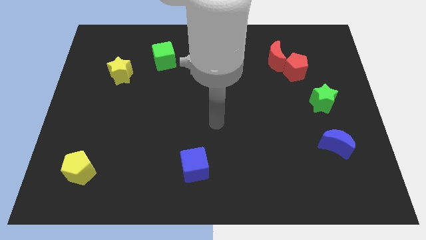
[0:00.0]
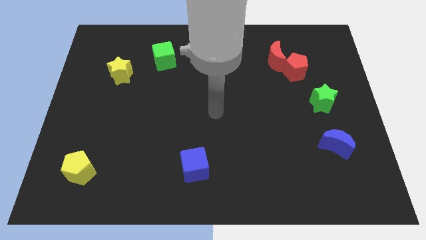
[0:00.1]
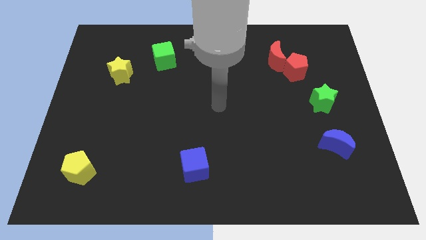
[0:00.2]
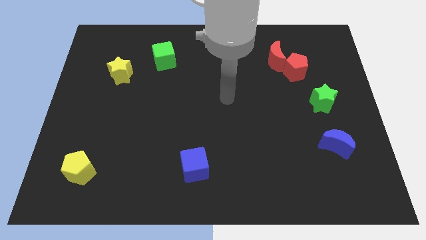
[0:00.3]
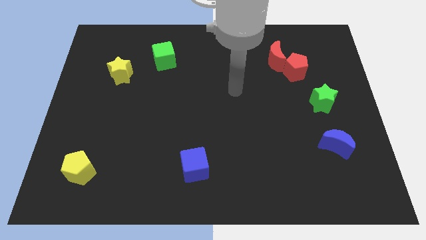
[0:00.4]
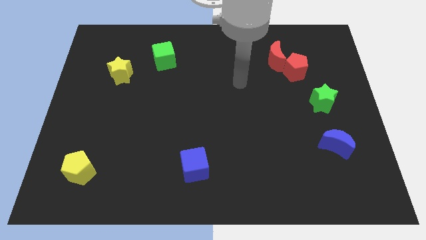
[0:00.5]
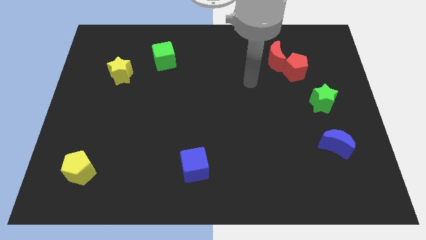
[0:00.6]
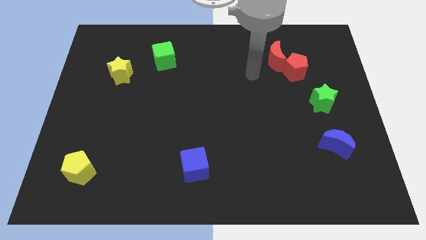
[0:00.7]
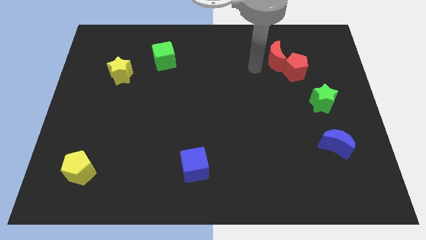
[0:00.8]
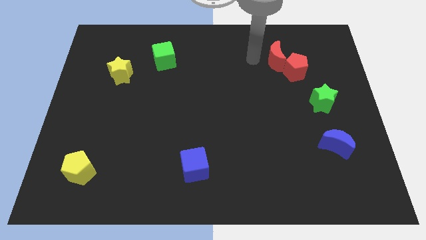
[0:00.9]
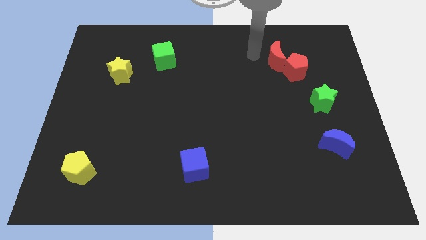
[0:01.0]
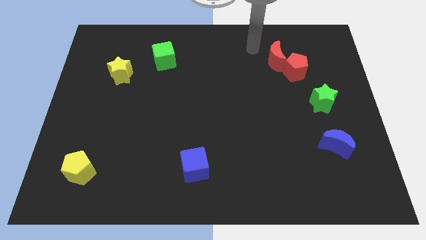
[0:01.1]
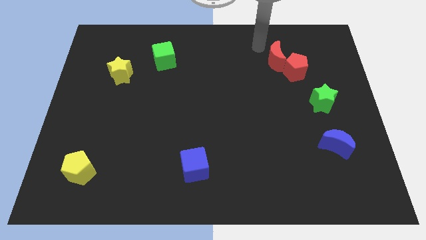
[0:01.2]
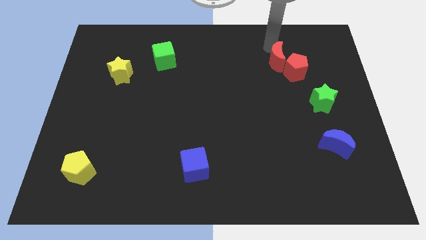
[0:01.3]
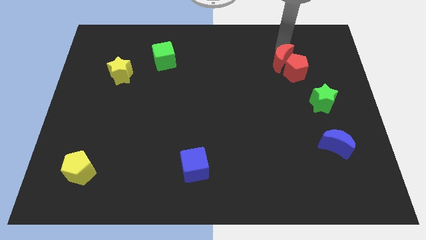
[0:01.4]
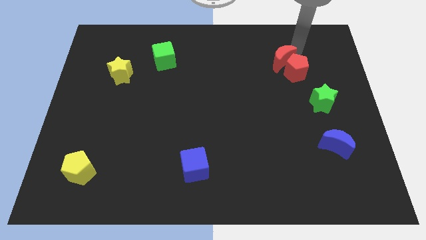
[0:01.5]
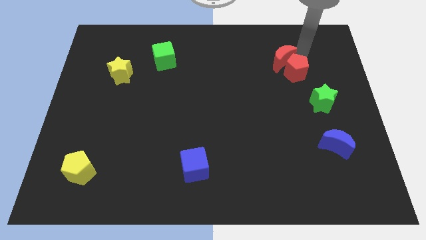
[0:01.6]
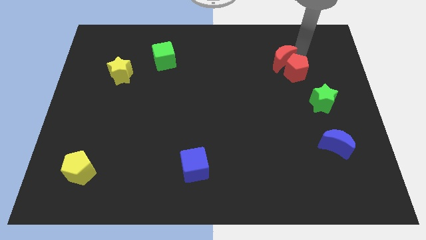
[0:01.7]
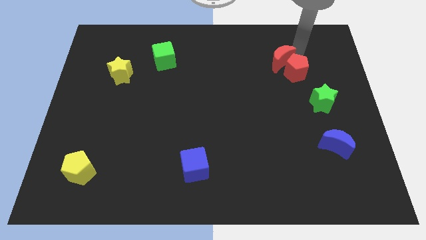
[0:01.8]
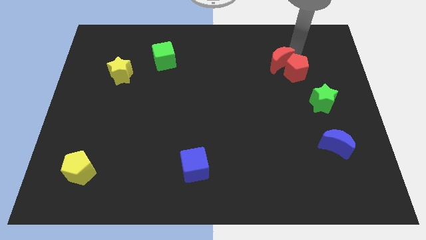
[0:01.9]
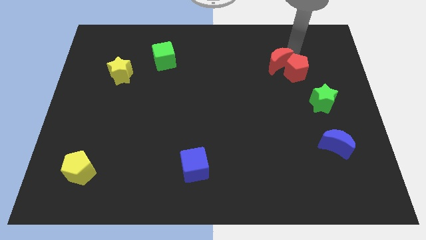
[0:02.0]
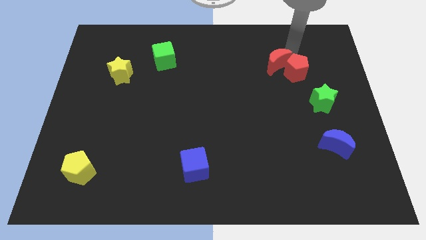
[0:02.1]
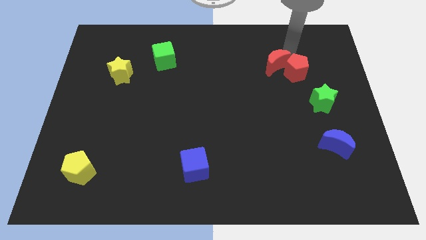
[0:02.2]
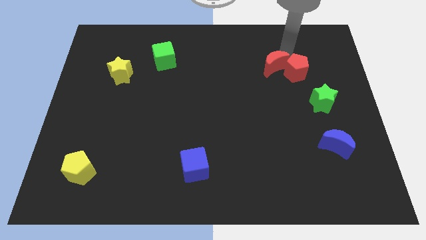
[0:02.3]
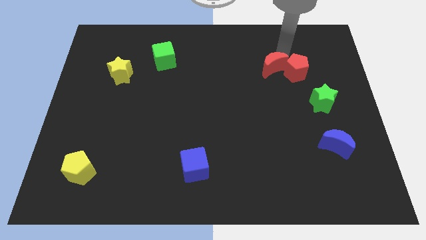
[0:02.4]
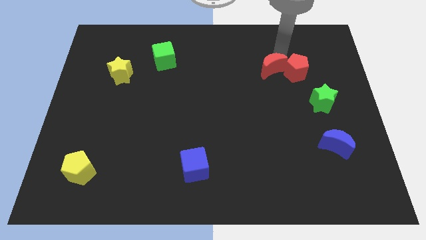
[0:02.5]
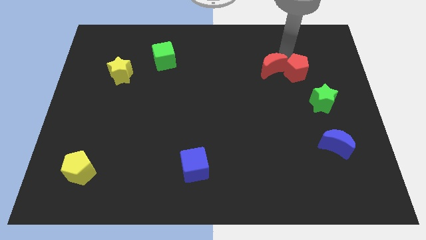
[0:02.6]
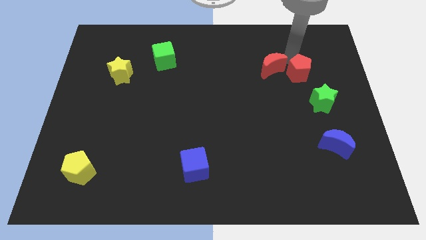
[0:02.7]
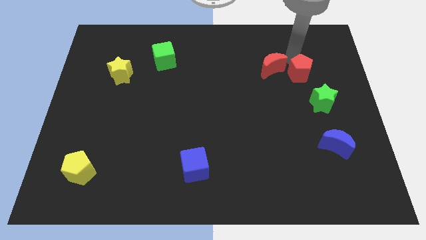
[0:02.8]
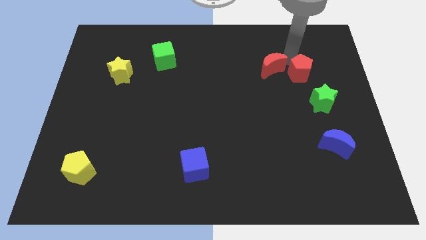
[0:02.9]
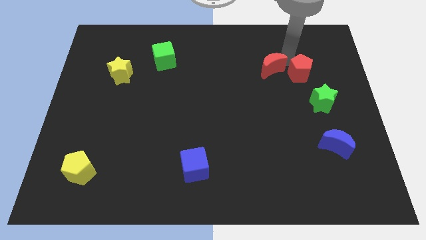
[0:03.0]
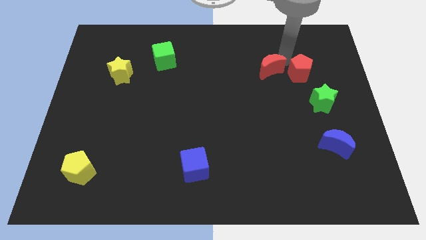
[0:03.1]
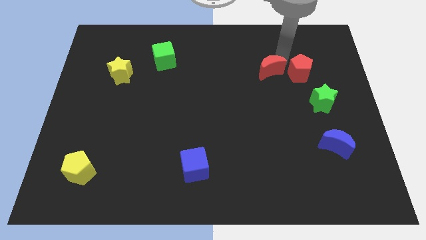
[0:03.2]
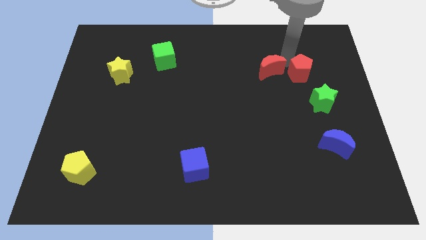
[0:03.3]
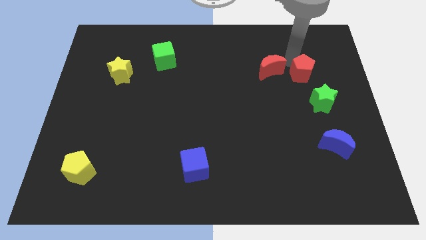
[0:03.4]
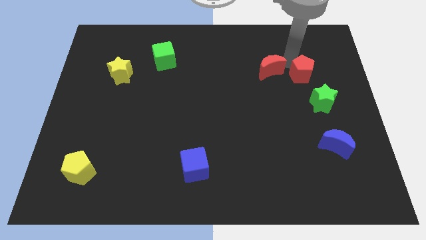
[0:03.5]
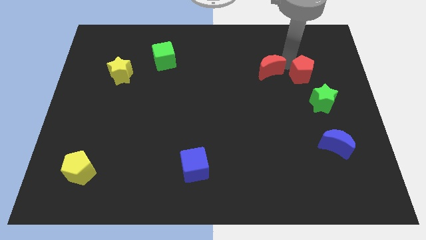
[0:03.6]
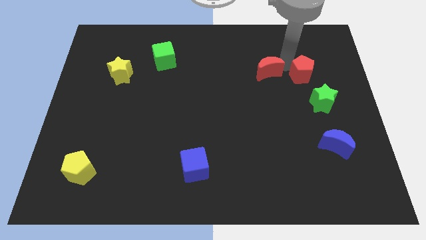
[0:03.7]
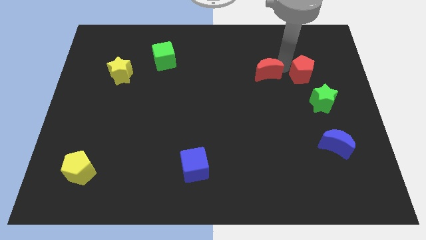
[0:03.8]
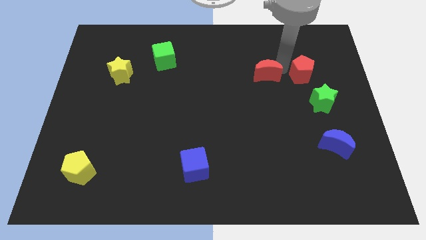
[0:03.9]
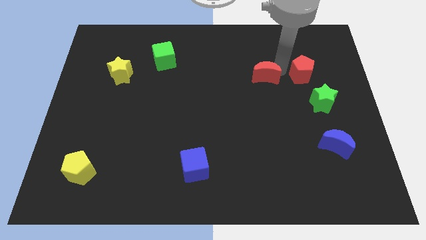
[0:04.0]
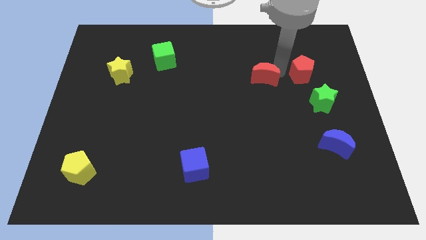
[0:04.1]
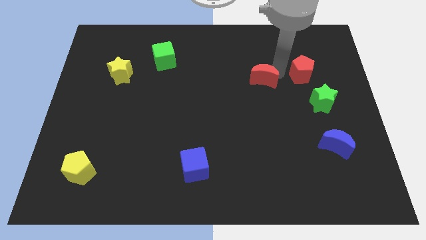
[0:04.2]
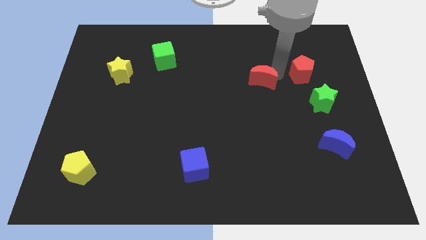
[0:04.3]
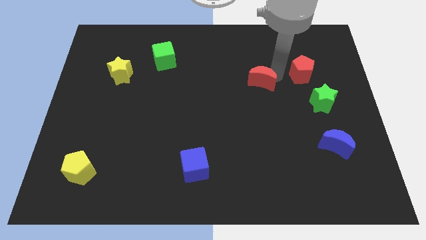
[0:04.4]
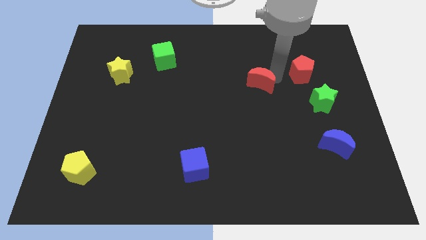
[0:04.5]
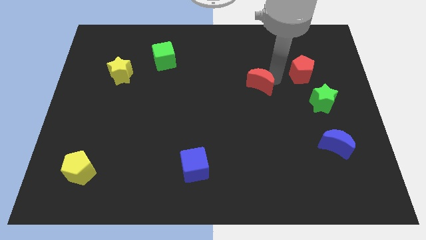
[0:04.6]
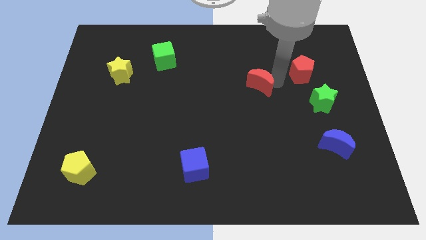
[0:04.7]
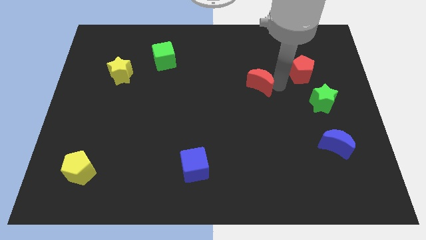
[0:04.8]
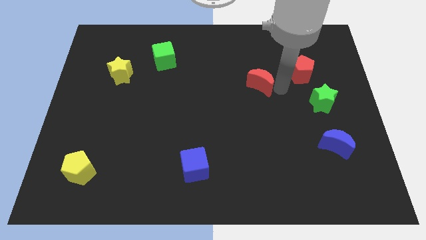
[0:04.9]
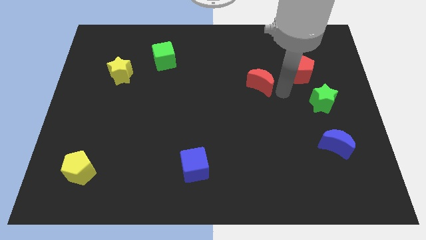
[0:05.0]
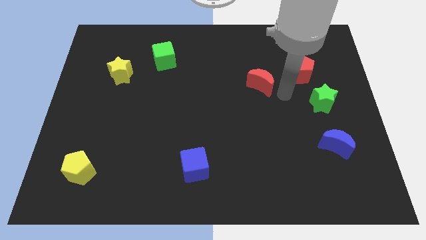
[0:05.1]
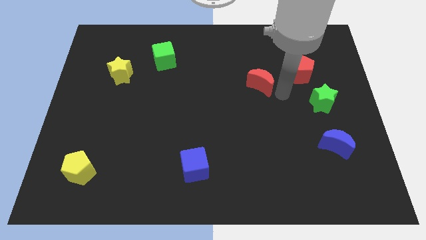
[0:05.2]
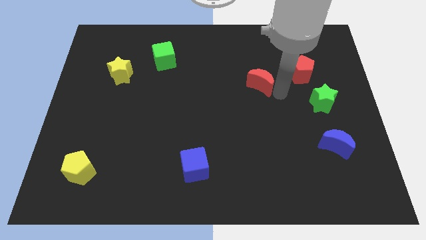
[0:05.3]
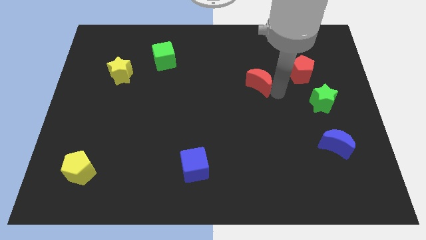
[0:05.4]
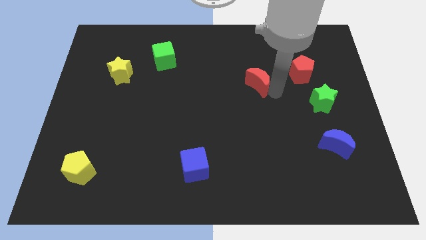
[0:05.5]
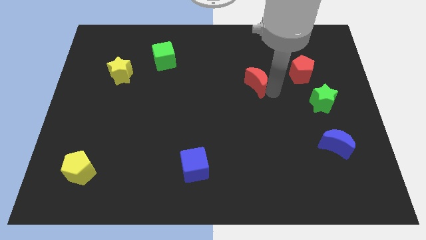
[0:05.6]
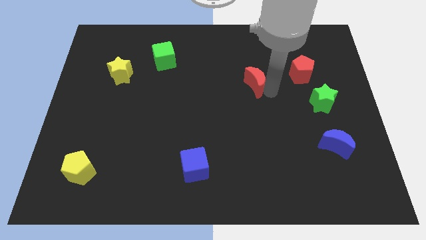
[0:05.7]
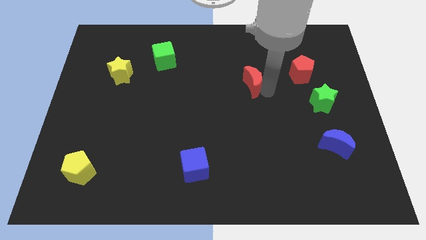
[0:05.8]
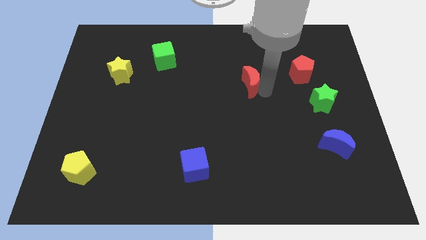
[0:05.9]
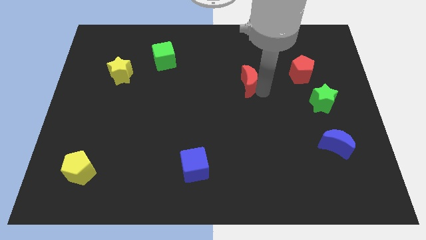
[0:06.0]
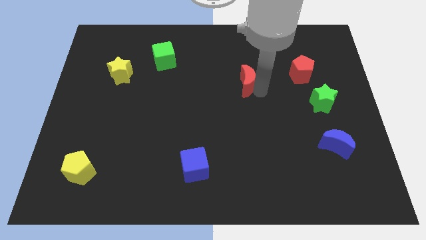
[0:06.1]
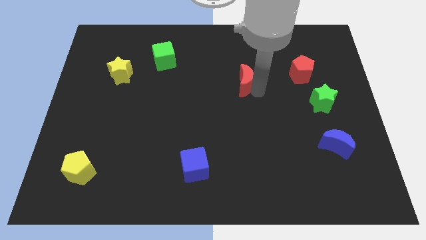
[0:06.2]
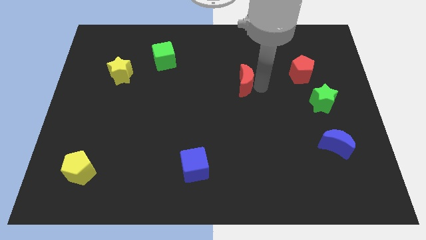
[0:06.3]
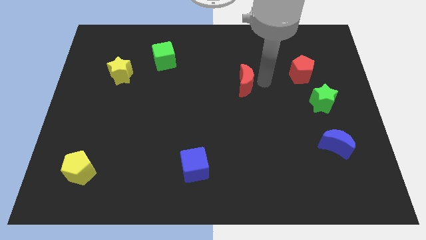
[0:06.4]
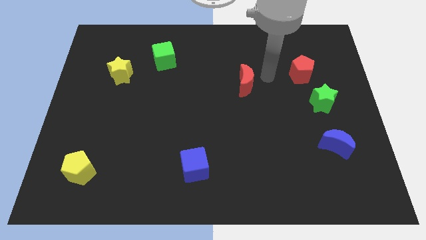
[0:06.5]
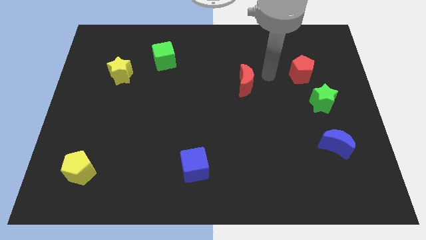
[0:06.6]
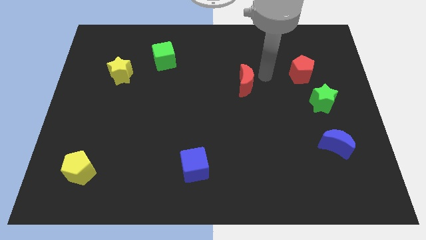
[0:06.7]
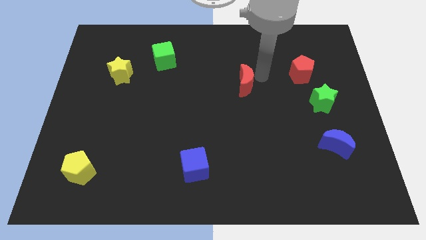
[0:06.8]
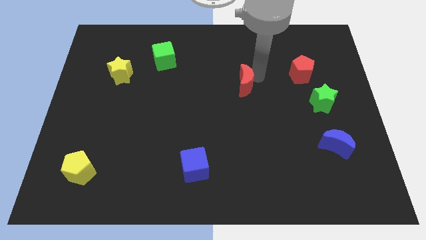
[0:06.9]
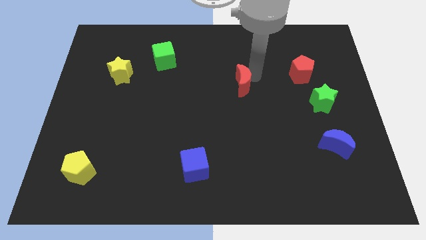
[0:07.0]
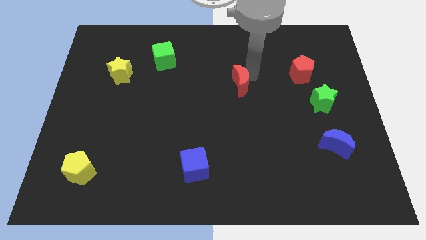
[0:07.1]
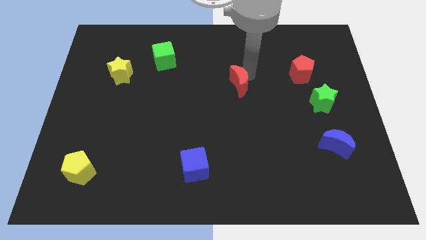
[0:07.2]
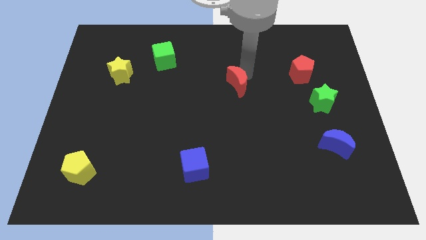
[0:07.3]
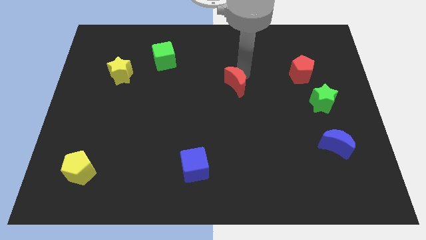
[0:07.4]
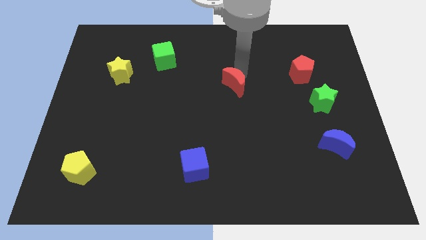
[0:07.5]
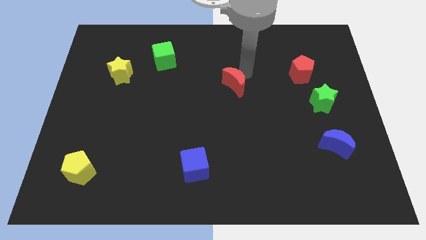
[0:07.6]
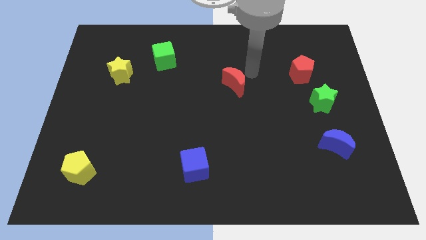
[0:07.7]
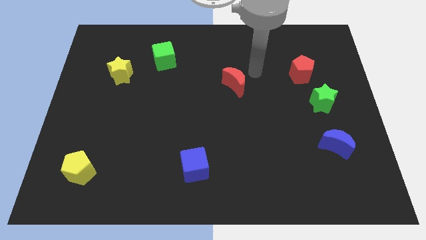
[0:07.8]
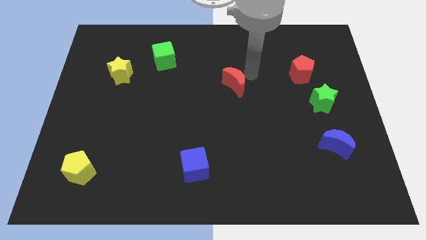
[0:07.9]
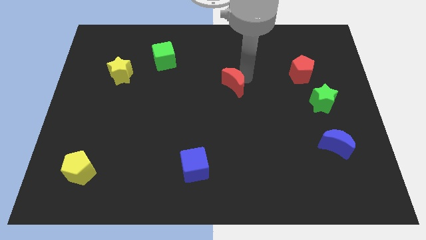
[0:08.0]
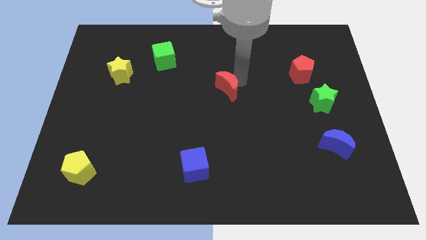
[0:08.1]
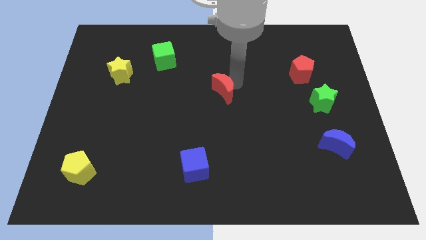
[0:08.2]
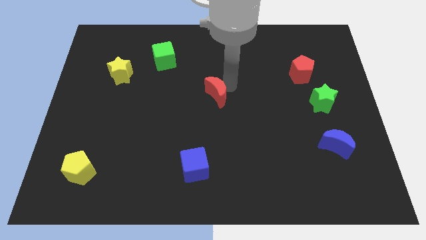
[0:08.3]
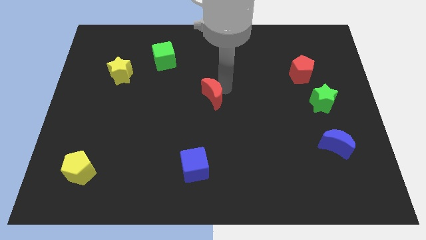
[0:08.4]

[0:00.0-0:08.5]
slide the red moon diagonally down and left
